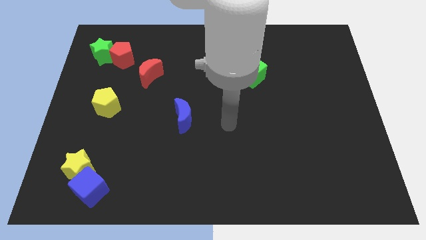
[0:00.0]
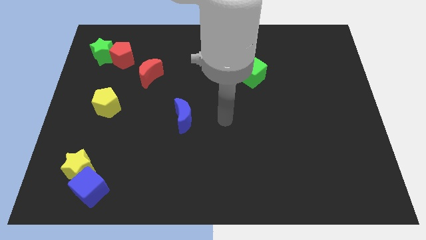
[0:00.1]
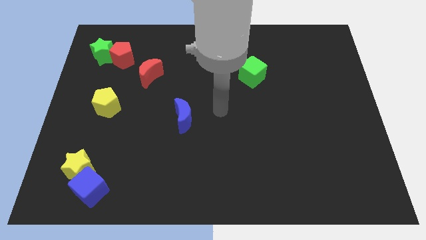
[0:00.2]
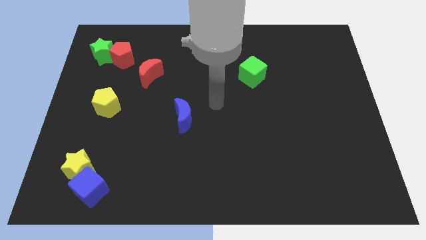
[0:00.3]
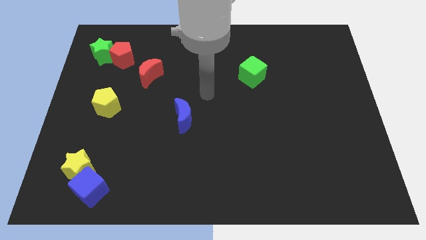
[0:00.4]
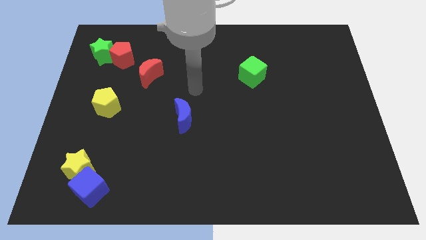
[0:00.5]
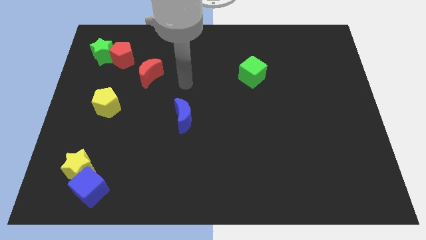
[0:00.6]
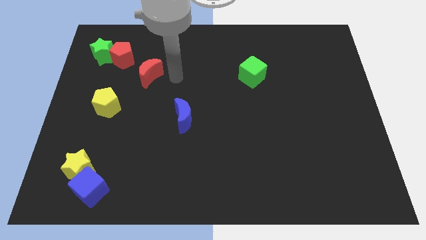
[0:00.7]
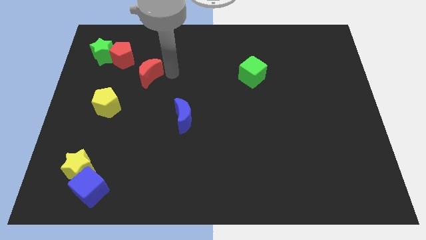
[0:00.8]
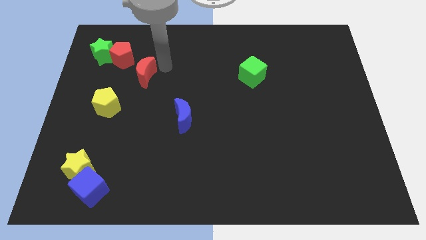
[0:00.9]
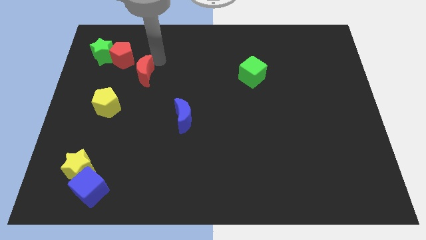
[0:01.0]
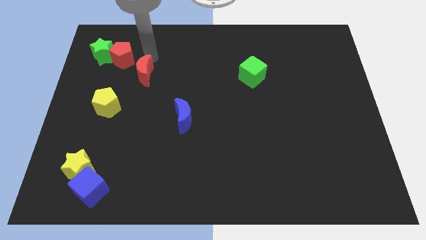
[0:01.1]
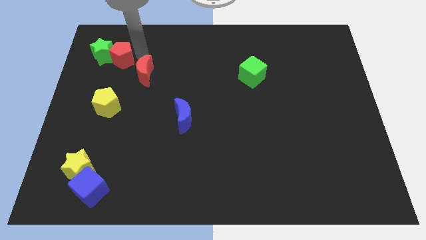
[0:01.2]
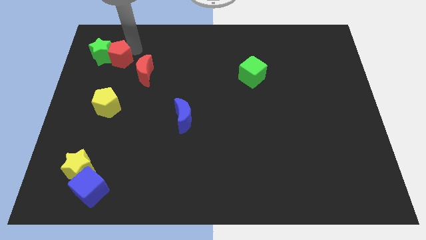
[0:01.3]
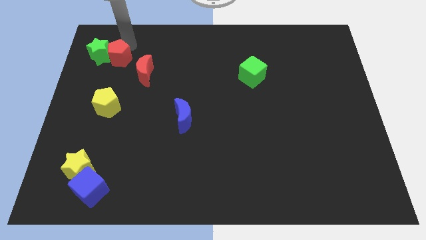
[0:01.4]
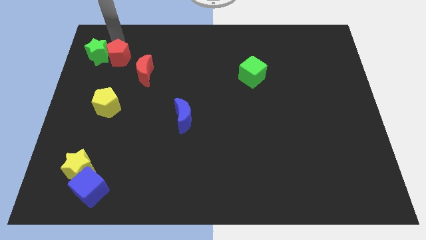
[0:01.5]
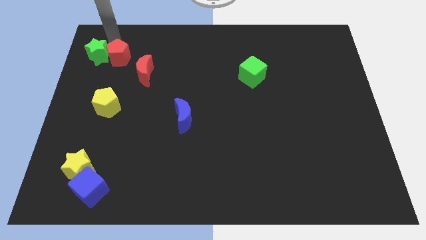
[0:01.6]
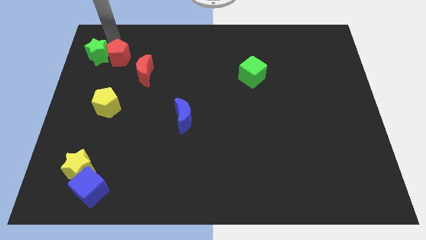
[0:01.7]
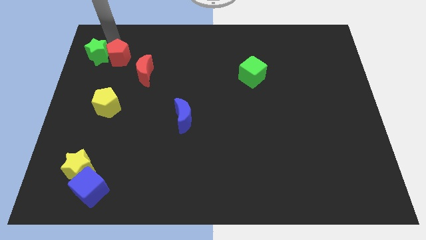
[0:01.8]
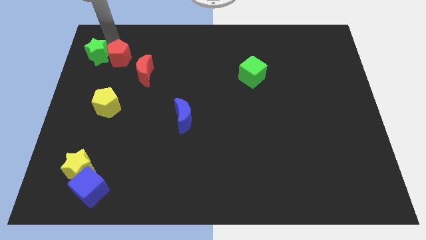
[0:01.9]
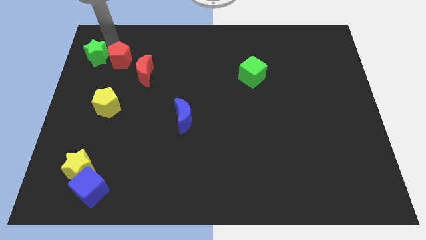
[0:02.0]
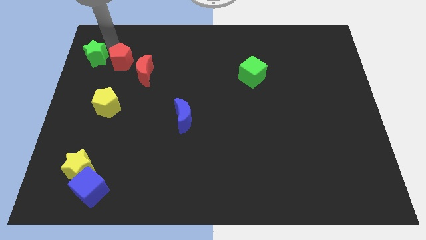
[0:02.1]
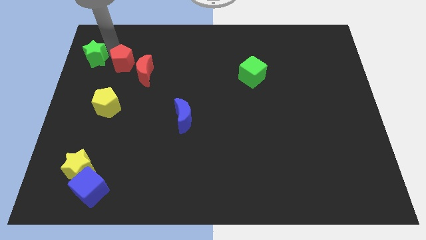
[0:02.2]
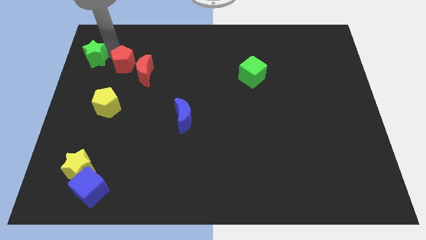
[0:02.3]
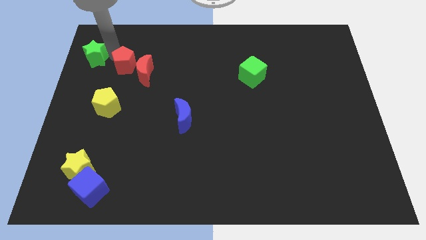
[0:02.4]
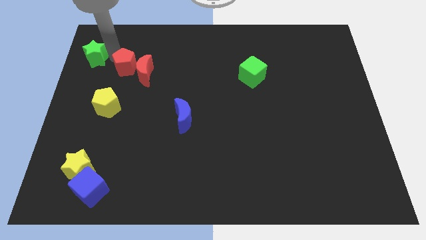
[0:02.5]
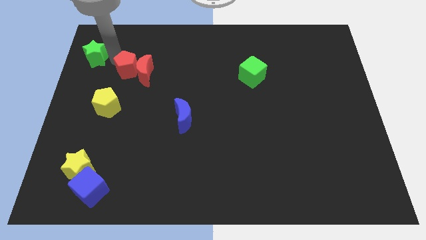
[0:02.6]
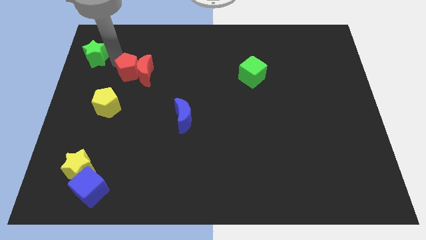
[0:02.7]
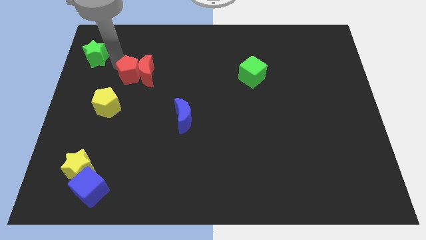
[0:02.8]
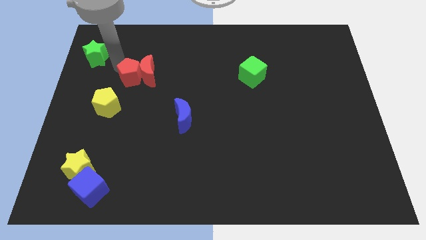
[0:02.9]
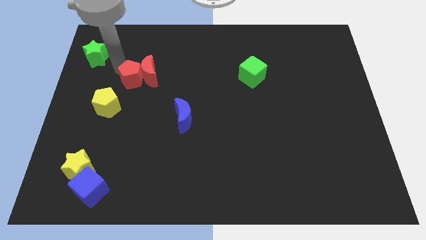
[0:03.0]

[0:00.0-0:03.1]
push the red pentagon diagonally down and to the right somewhat

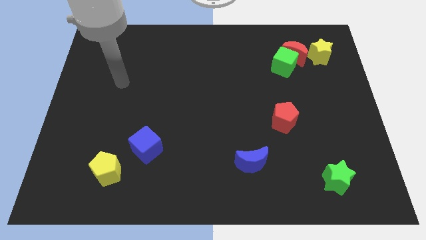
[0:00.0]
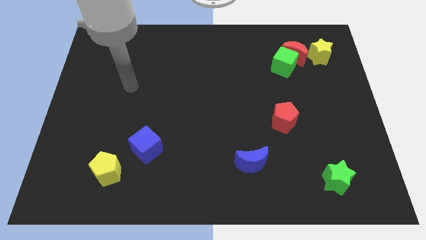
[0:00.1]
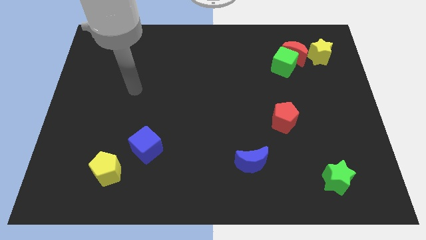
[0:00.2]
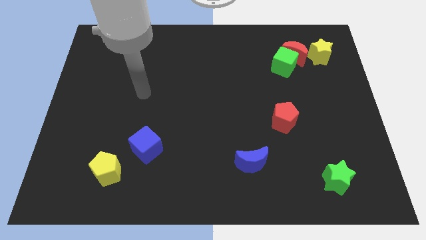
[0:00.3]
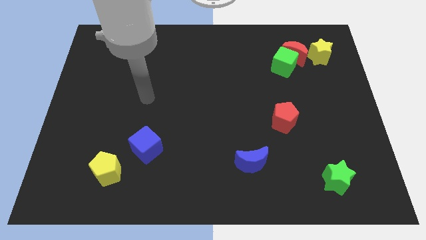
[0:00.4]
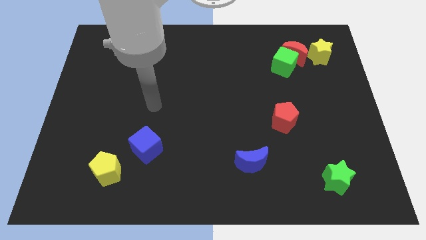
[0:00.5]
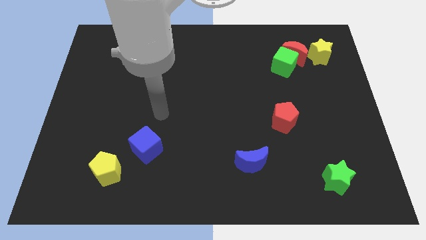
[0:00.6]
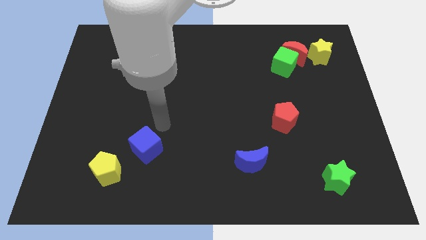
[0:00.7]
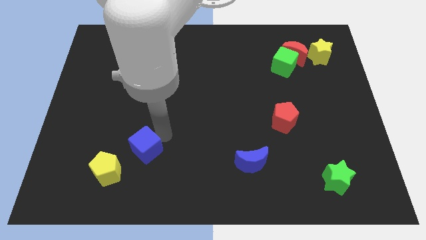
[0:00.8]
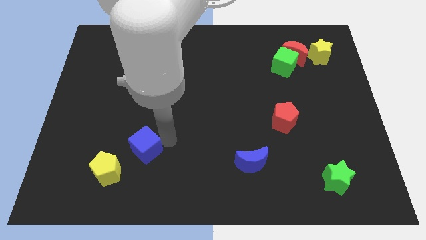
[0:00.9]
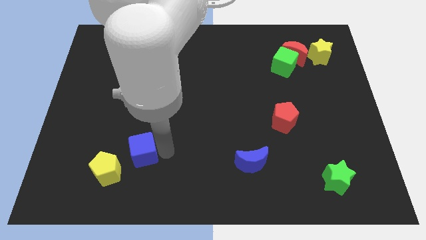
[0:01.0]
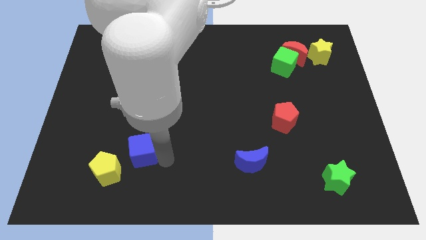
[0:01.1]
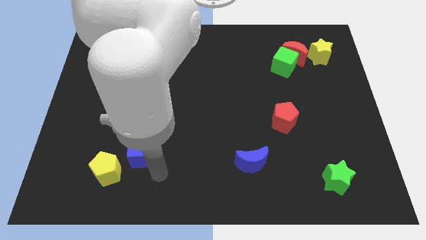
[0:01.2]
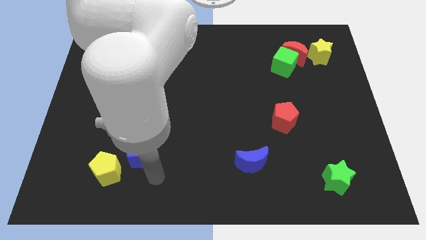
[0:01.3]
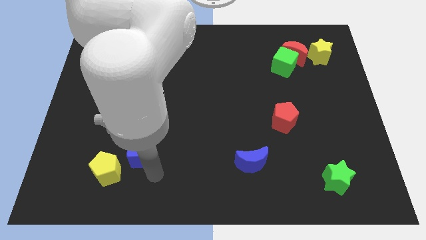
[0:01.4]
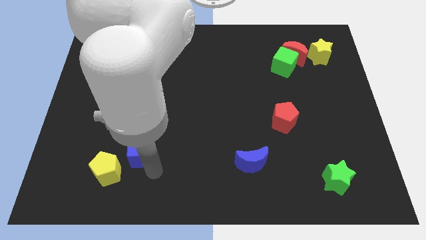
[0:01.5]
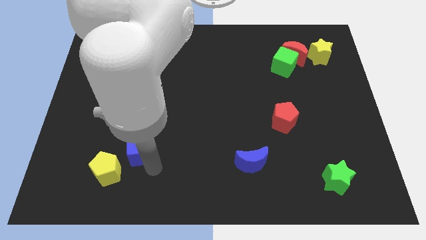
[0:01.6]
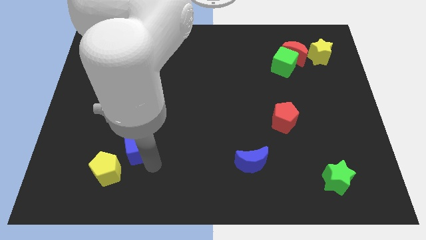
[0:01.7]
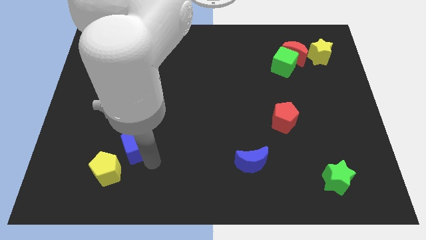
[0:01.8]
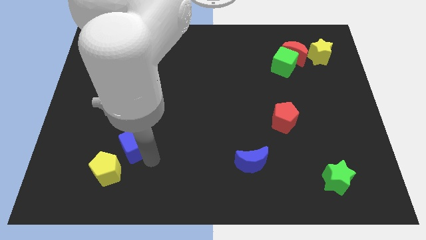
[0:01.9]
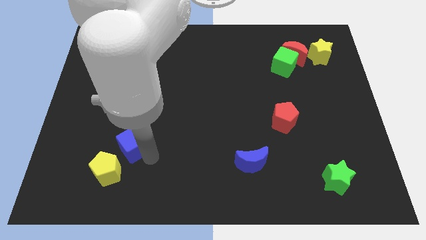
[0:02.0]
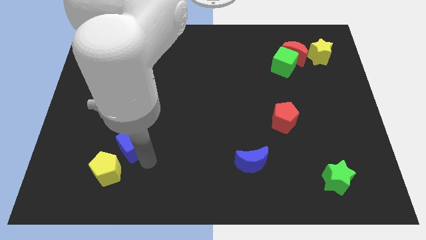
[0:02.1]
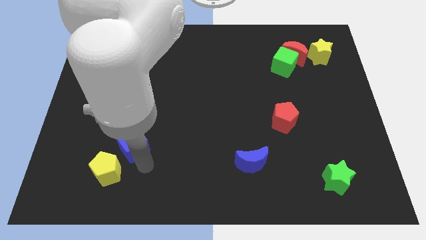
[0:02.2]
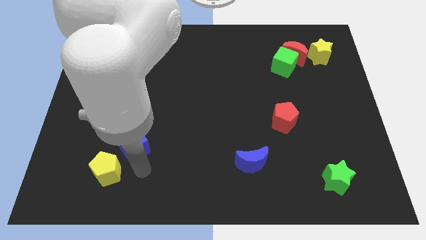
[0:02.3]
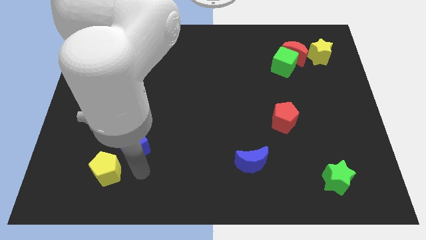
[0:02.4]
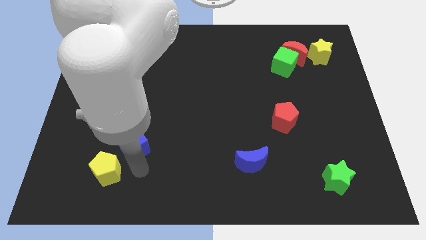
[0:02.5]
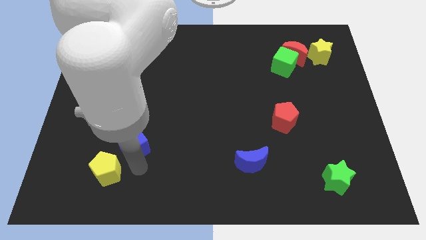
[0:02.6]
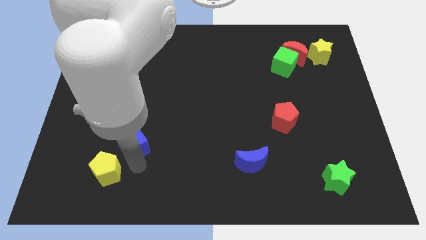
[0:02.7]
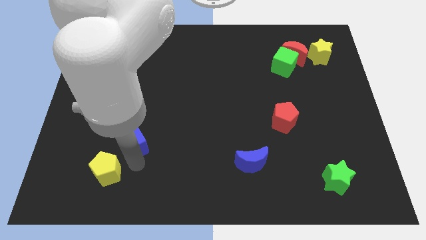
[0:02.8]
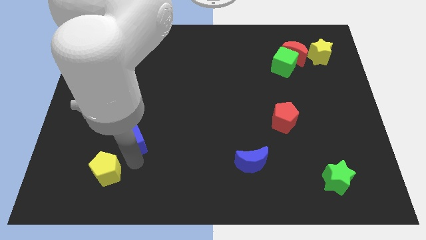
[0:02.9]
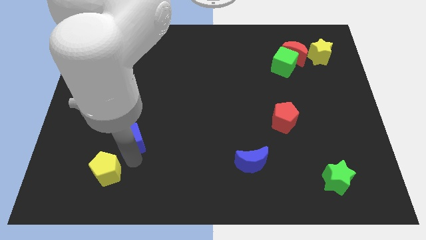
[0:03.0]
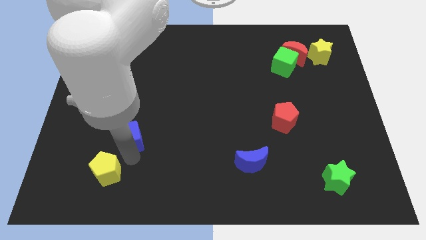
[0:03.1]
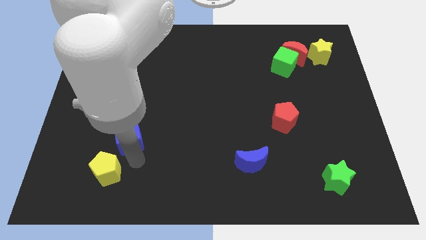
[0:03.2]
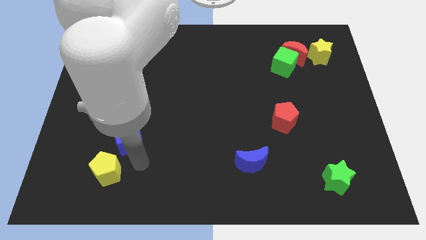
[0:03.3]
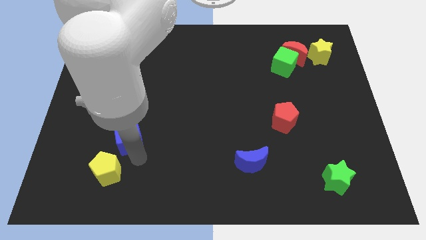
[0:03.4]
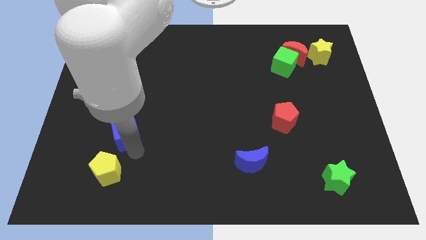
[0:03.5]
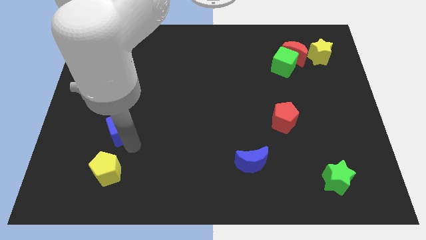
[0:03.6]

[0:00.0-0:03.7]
slightly slide the blue cube upwards and to the left diagonally

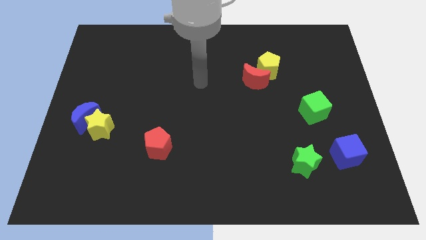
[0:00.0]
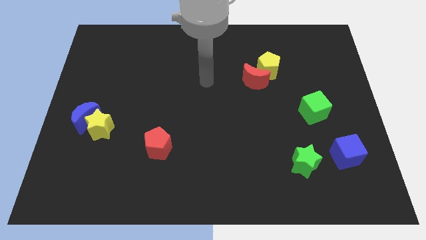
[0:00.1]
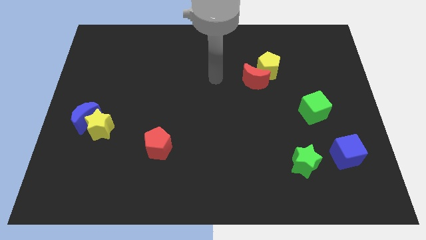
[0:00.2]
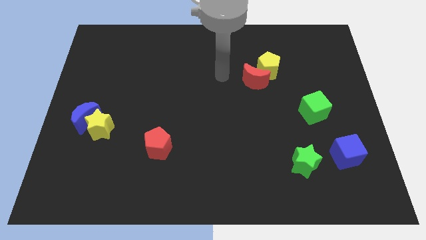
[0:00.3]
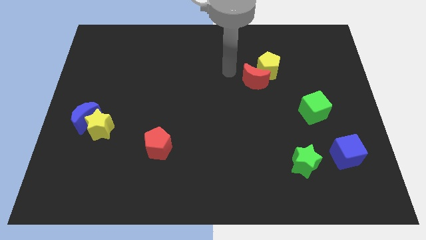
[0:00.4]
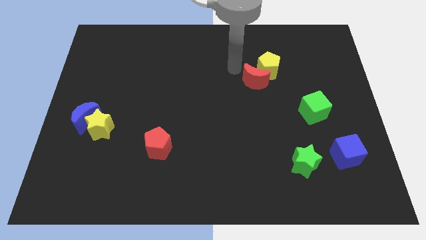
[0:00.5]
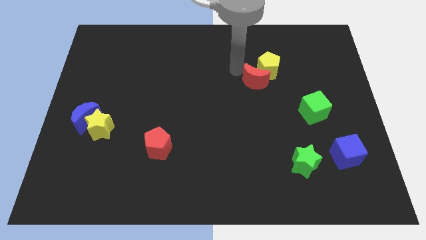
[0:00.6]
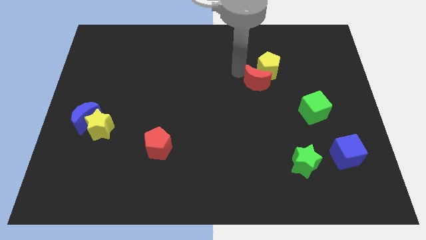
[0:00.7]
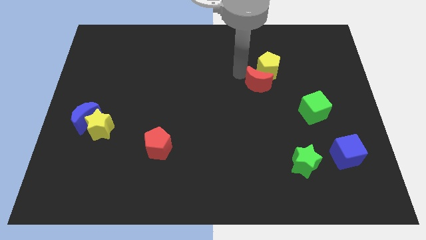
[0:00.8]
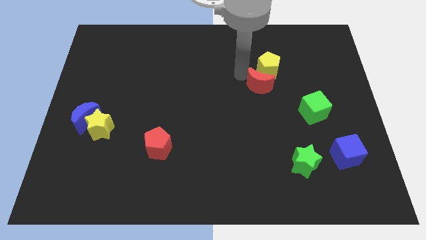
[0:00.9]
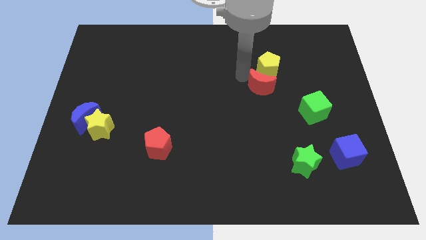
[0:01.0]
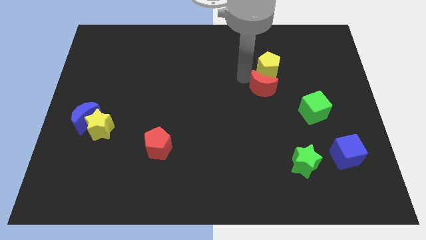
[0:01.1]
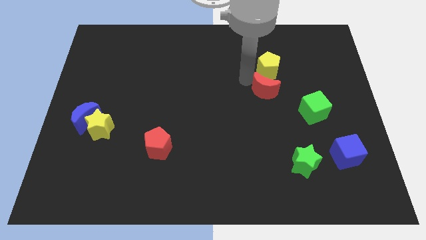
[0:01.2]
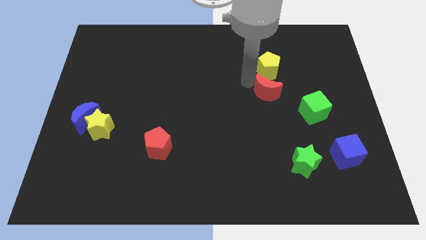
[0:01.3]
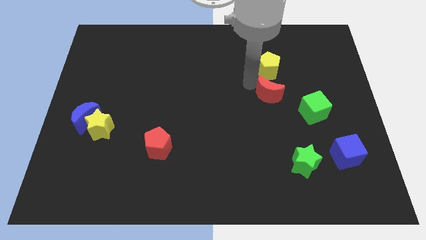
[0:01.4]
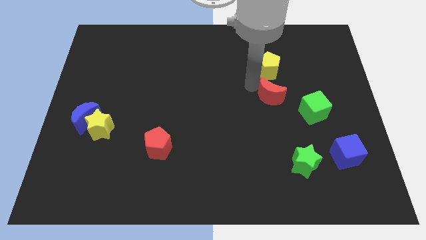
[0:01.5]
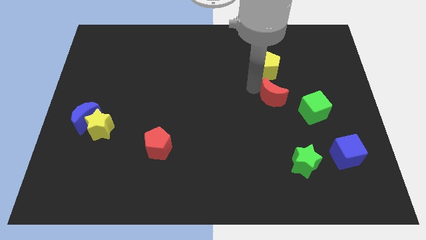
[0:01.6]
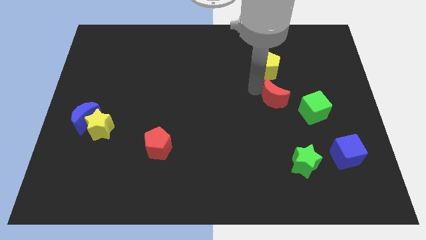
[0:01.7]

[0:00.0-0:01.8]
slightly slide the red moon downwards and then right

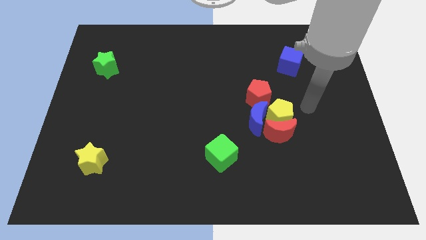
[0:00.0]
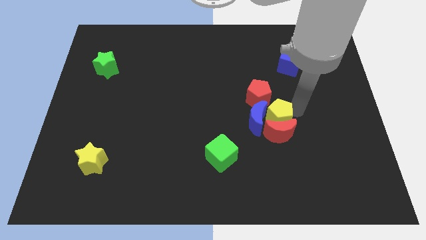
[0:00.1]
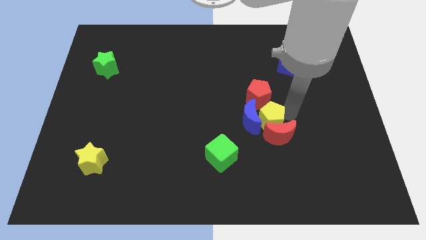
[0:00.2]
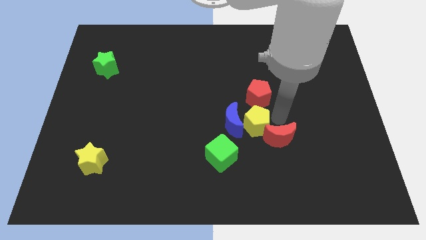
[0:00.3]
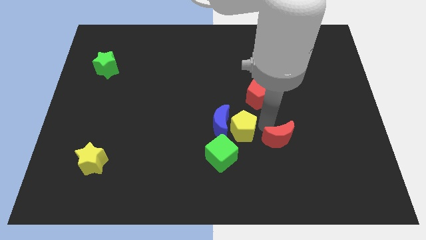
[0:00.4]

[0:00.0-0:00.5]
slide the blue moon a bit to the left
